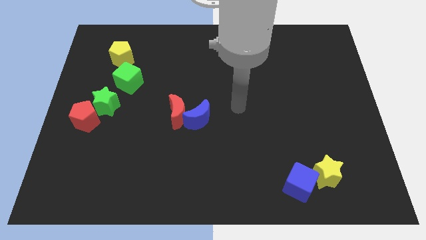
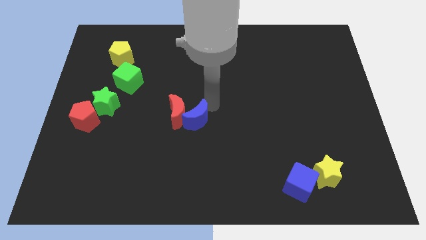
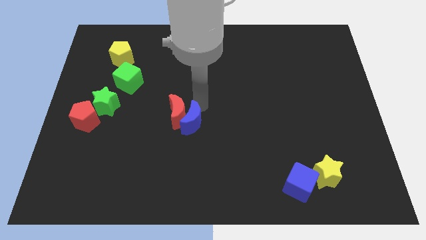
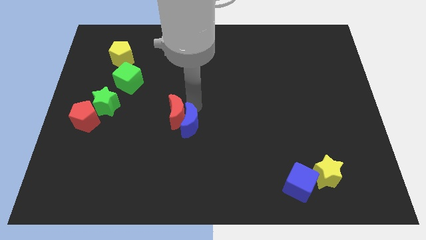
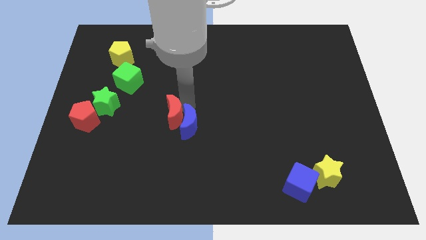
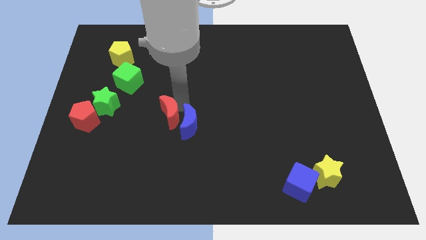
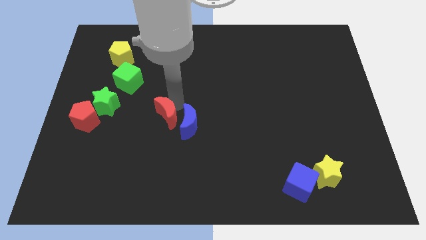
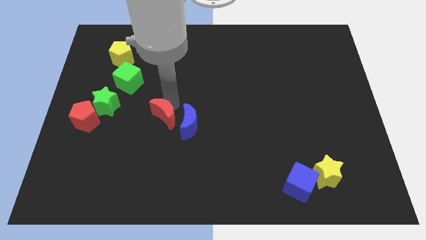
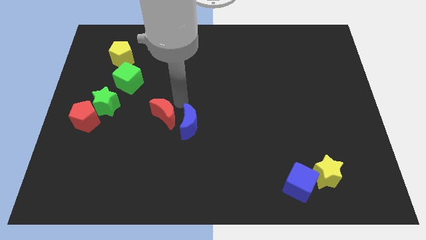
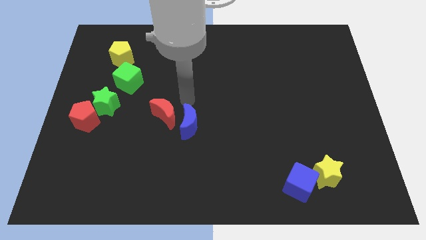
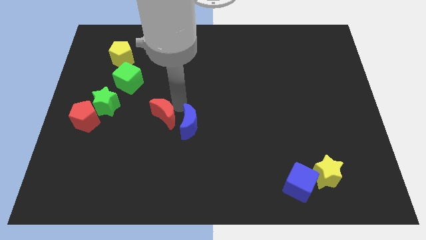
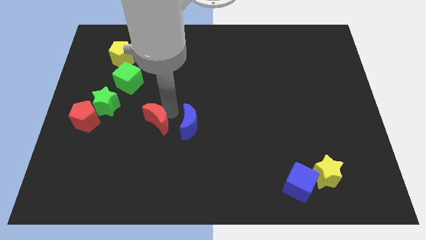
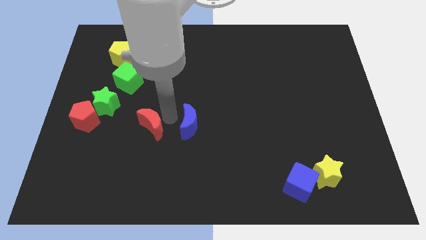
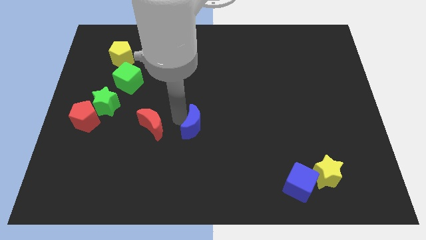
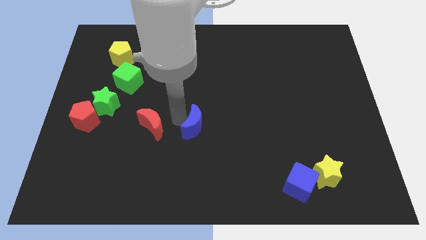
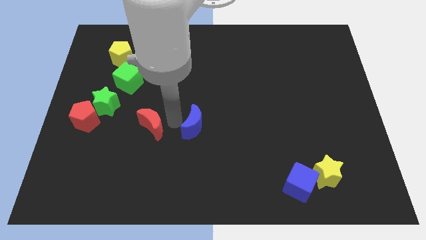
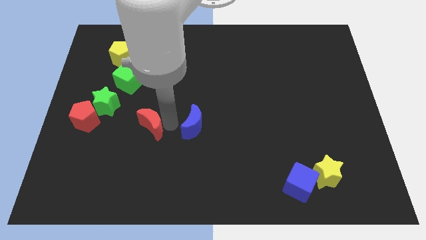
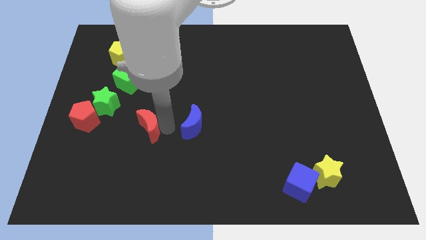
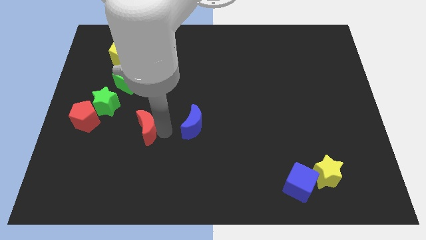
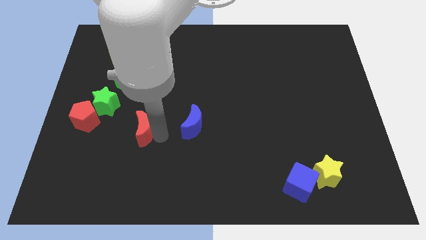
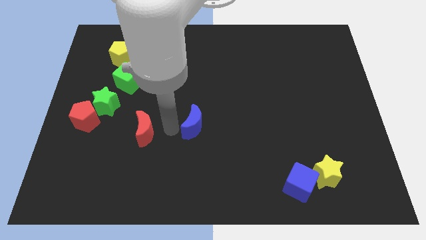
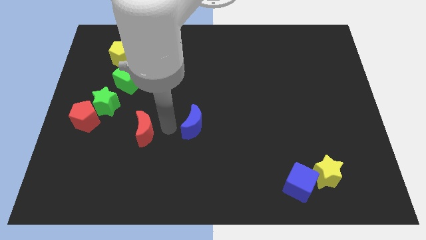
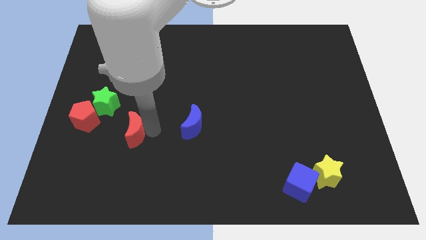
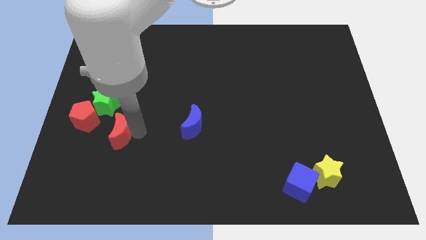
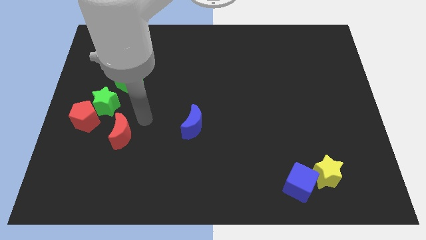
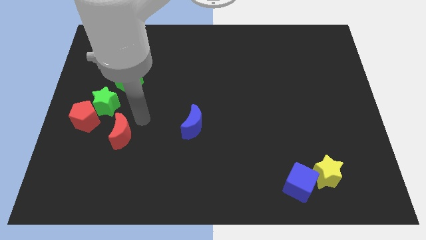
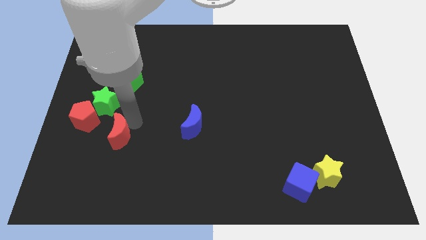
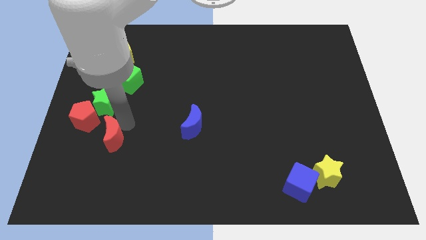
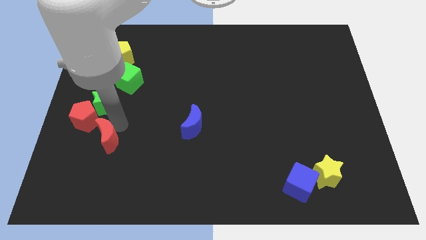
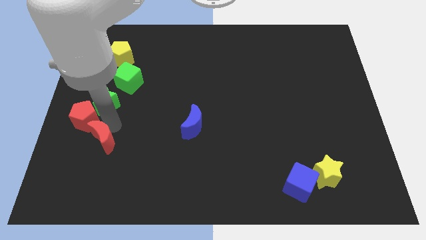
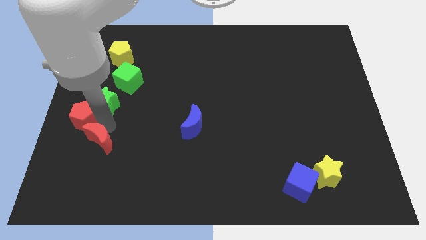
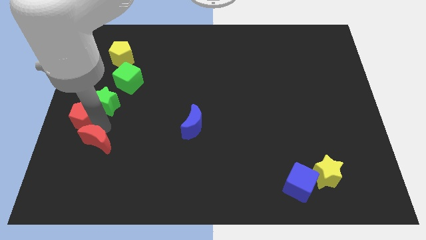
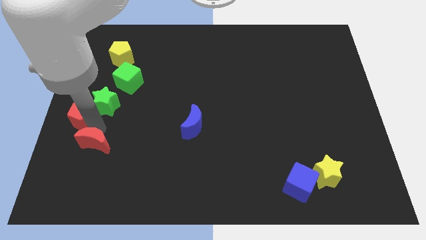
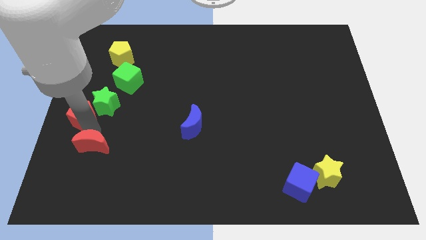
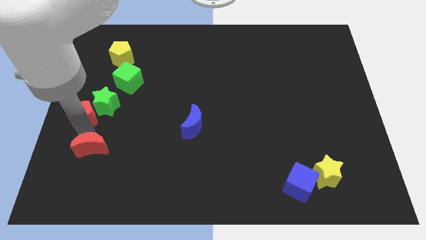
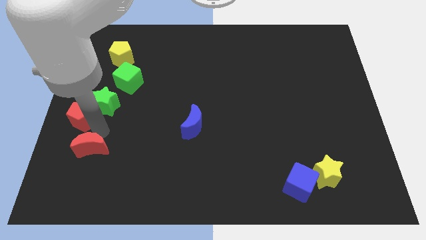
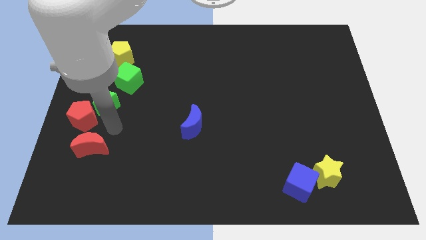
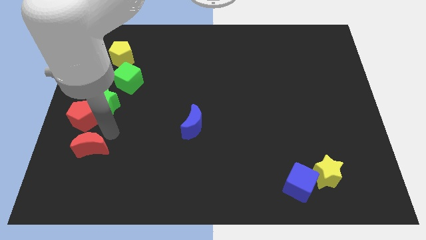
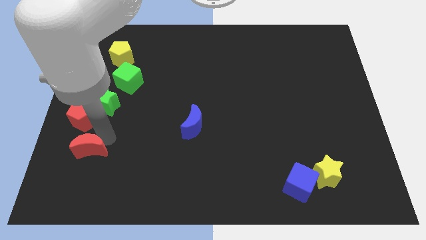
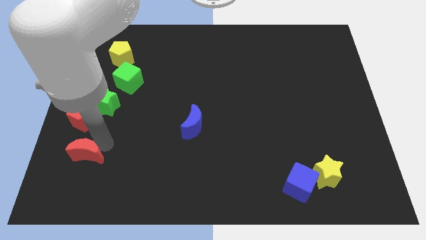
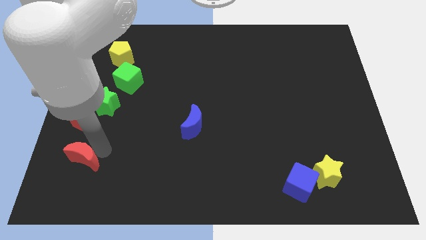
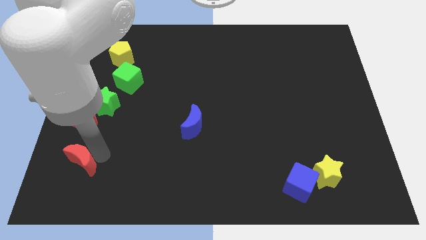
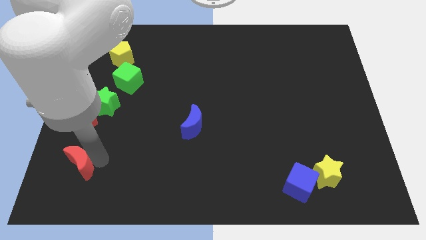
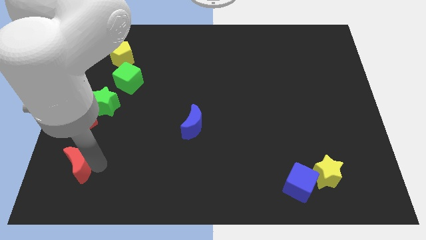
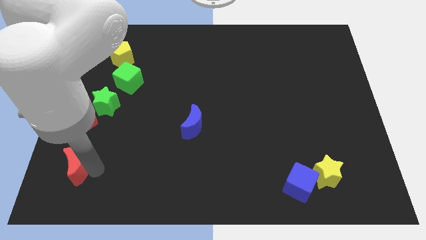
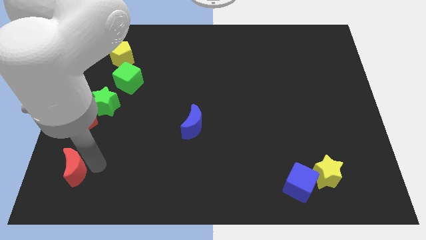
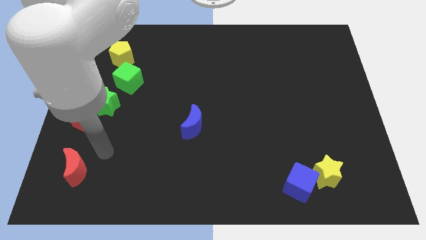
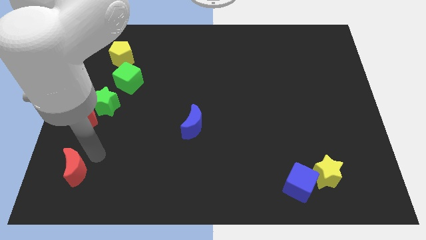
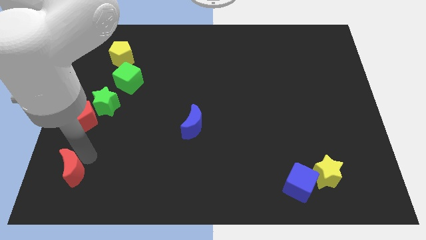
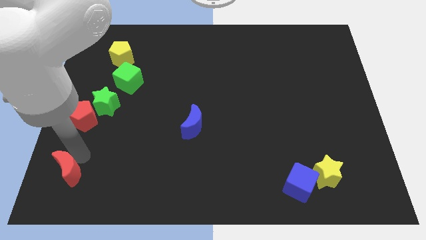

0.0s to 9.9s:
put the red moon to the bottom left of the board

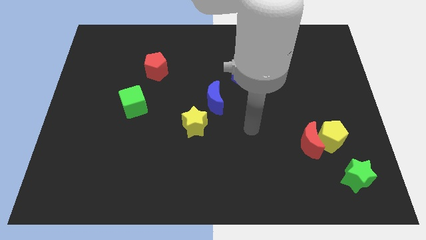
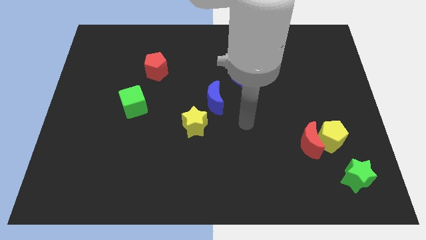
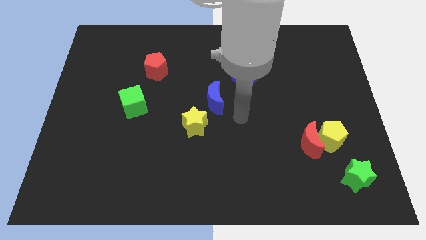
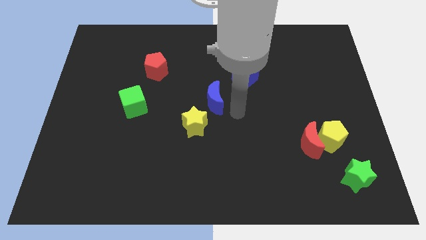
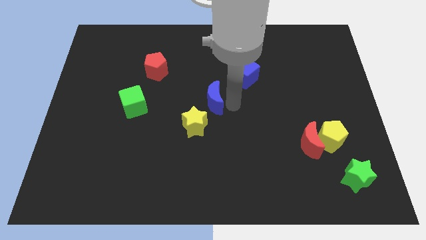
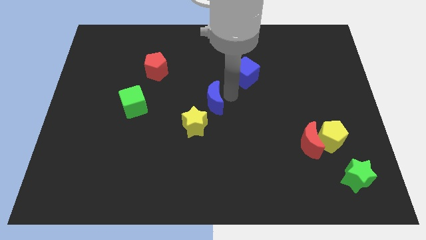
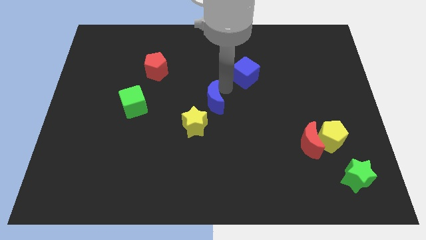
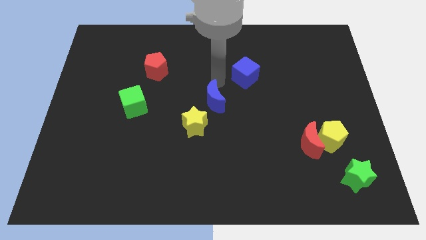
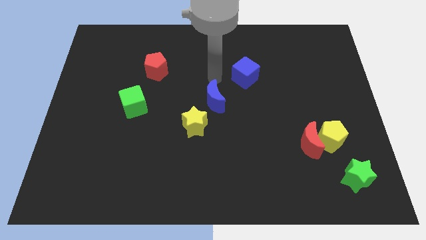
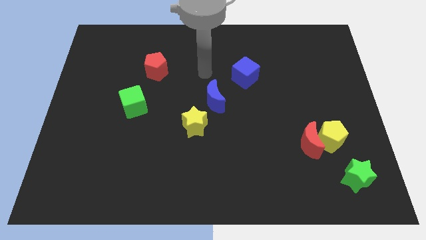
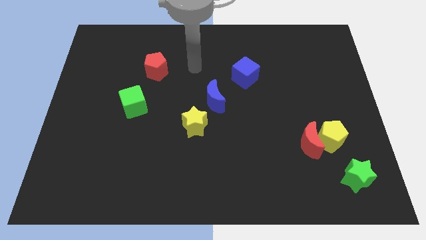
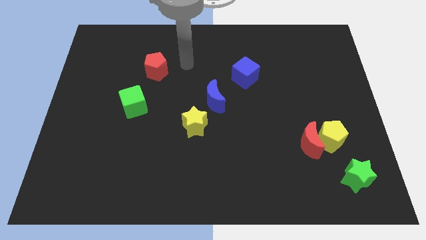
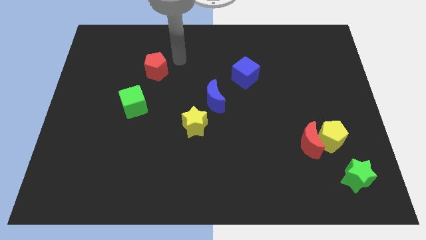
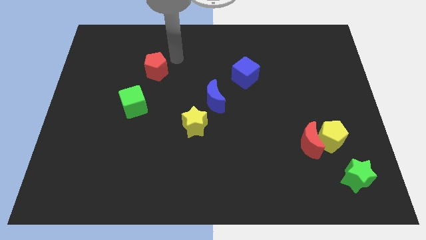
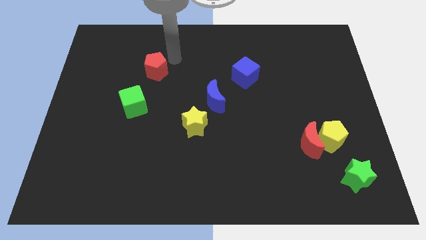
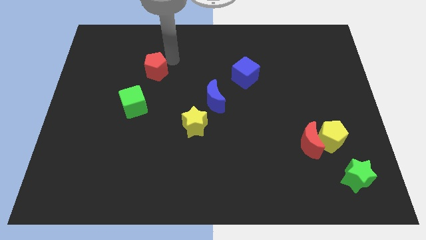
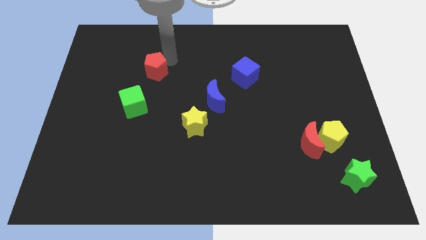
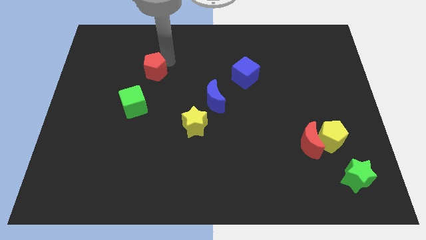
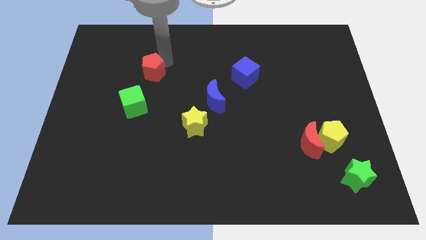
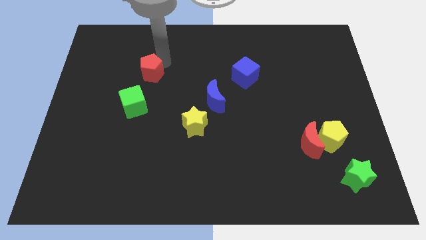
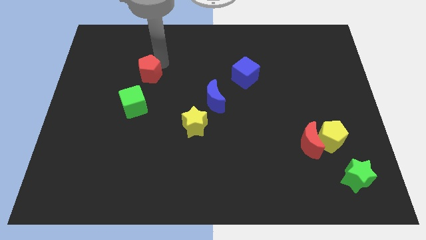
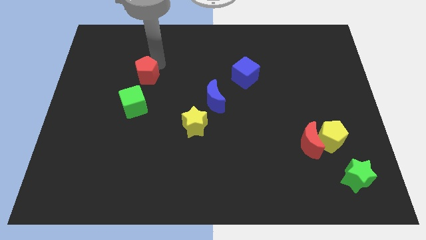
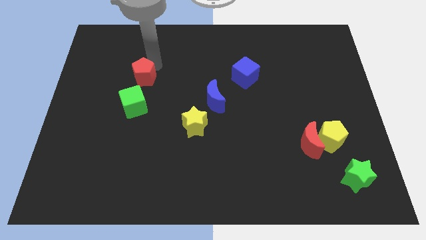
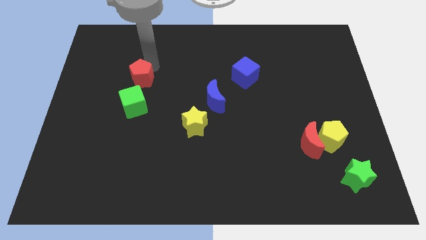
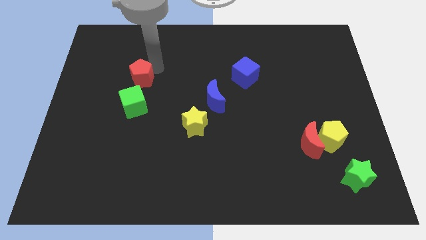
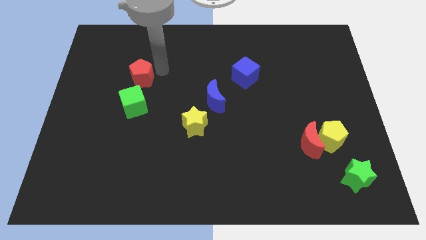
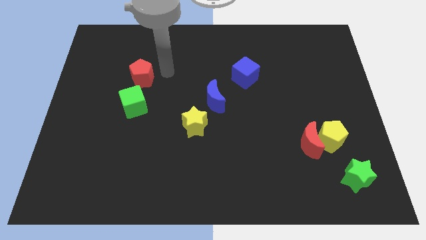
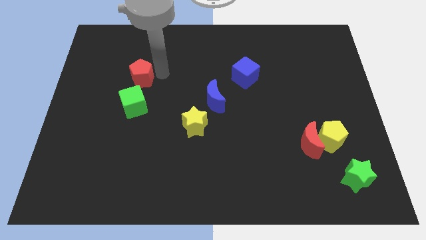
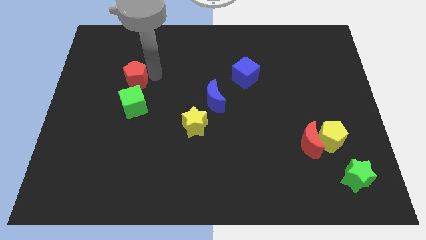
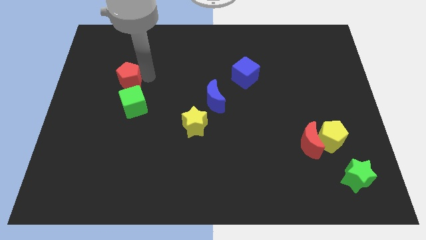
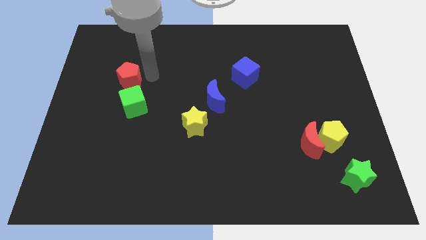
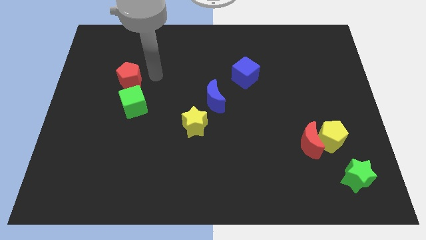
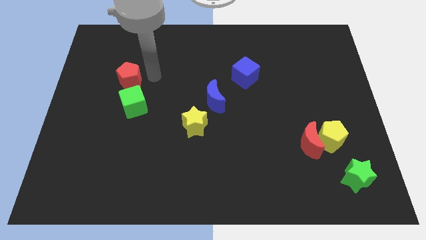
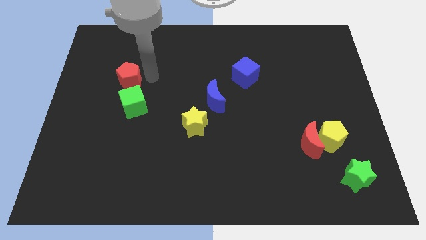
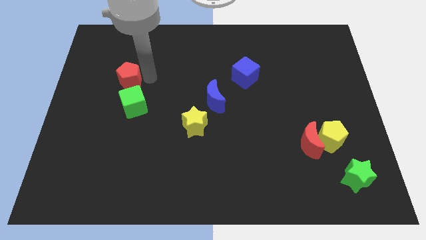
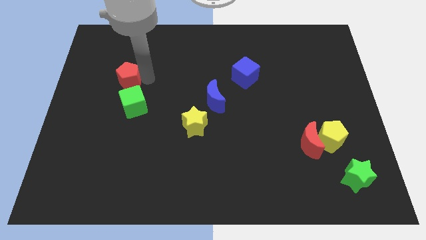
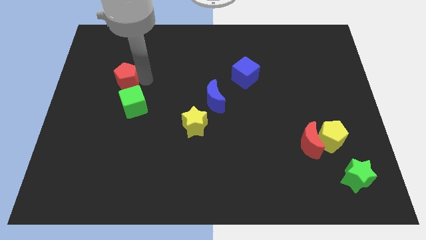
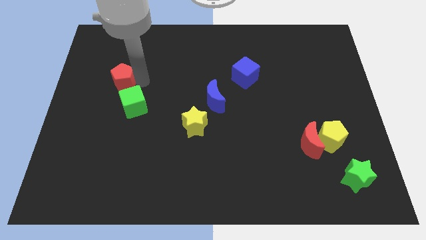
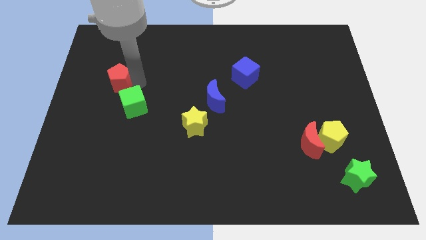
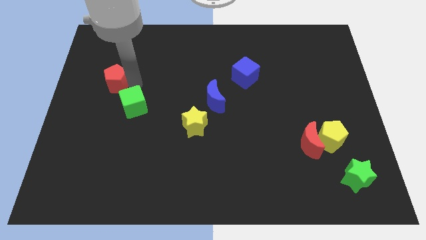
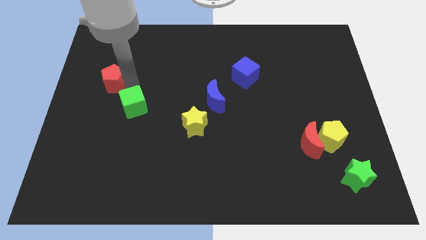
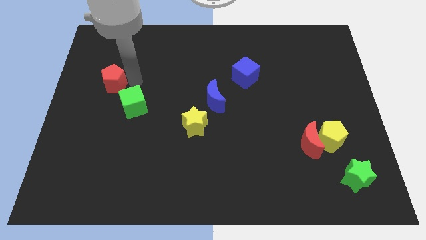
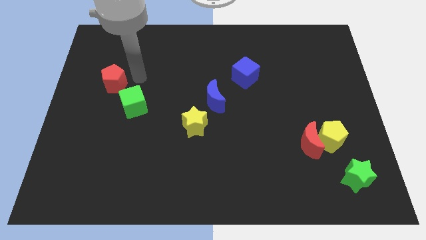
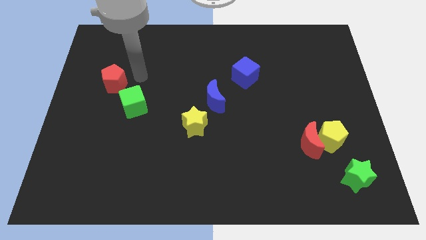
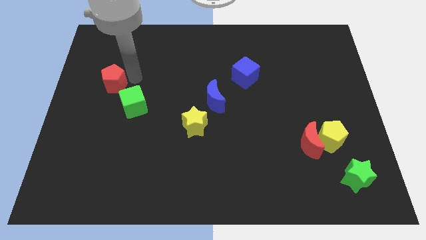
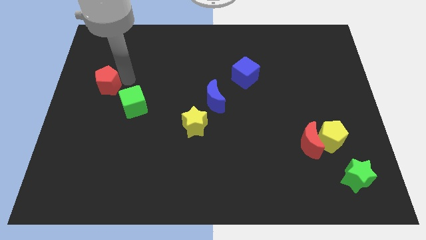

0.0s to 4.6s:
push the red pentagon to the left side
